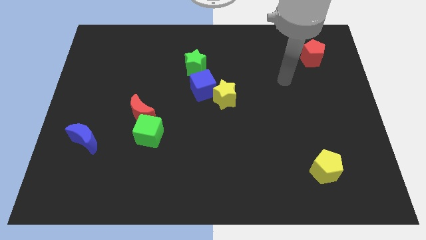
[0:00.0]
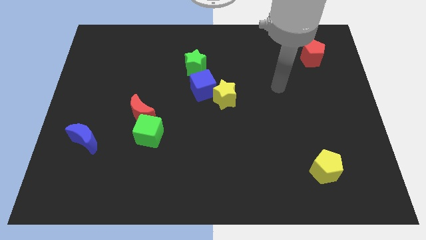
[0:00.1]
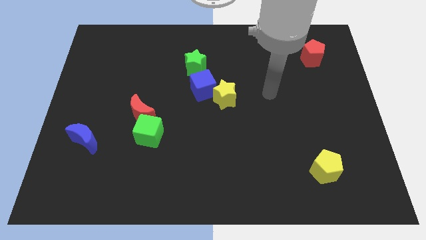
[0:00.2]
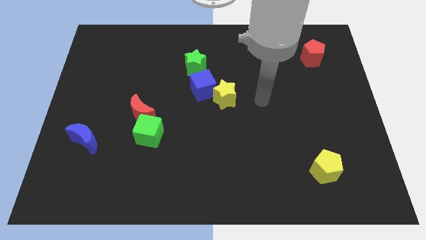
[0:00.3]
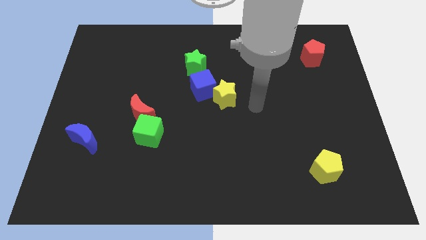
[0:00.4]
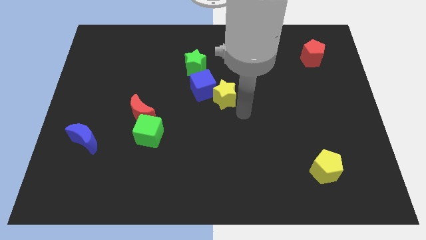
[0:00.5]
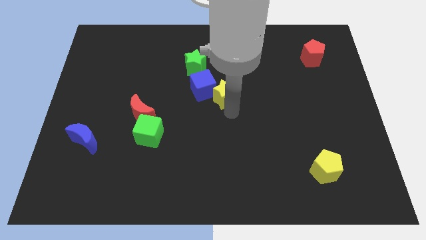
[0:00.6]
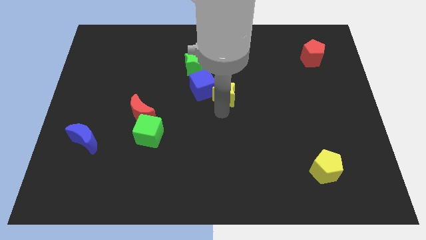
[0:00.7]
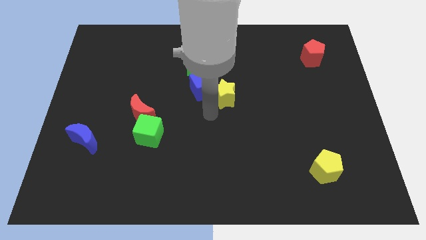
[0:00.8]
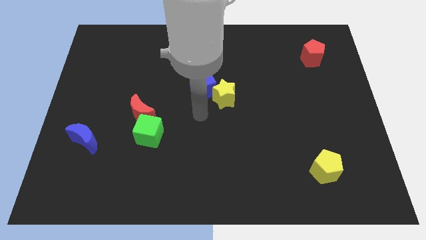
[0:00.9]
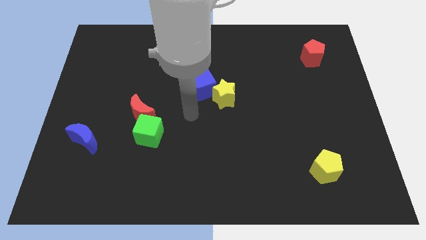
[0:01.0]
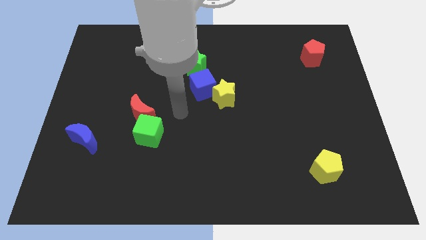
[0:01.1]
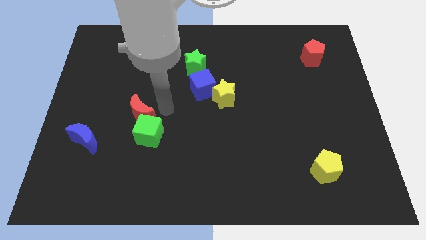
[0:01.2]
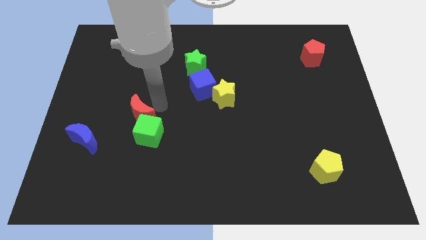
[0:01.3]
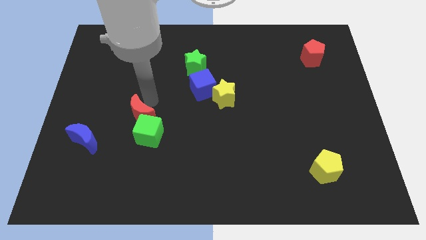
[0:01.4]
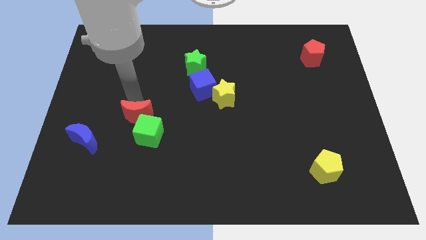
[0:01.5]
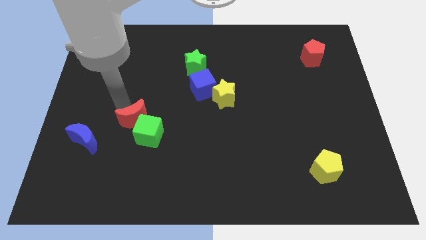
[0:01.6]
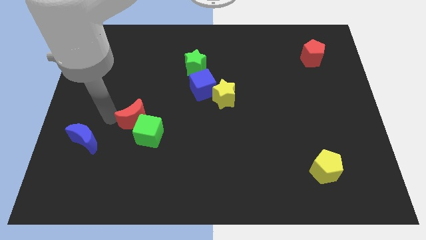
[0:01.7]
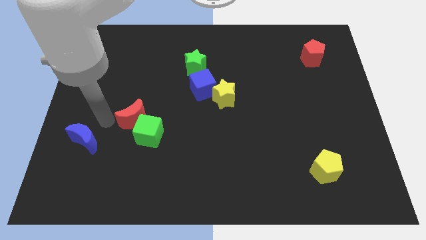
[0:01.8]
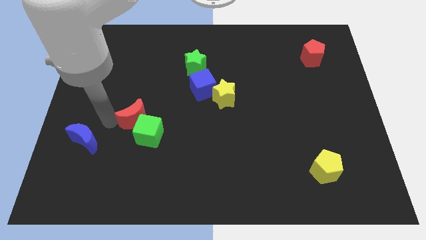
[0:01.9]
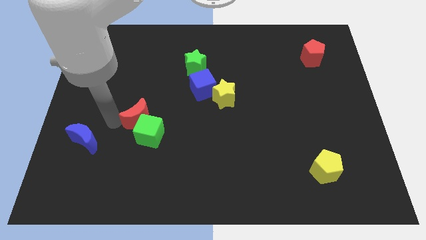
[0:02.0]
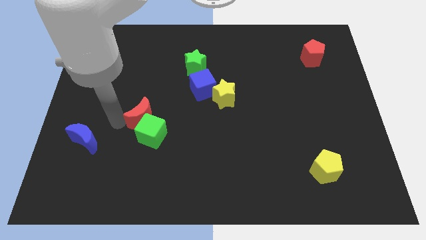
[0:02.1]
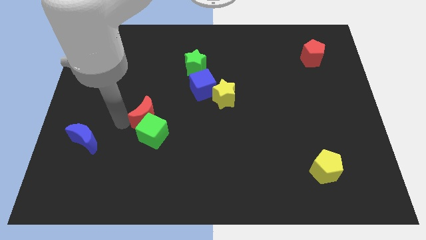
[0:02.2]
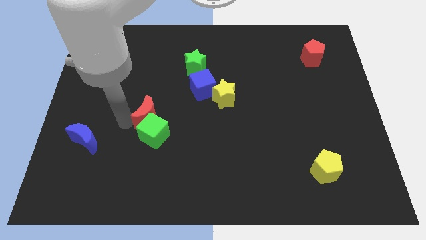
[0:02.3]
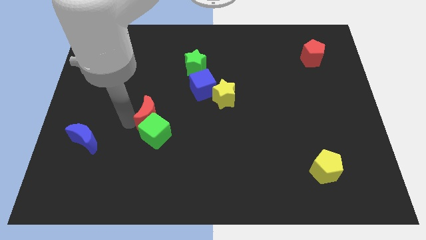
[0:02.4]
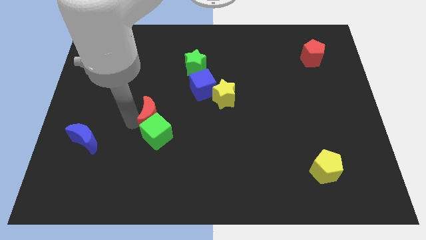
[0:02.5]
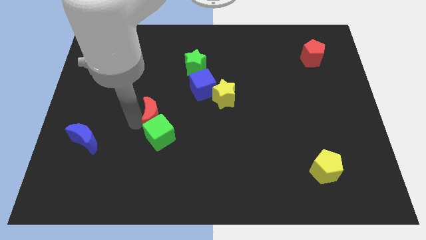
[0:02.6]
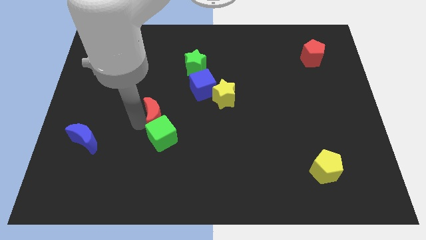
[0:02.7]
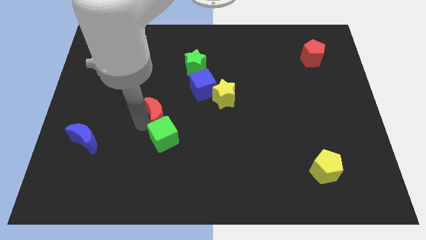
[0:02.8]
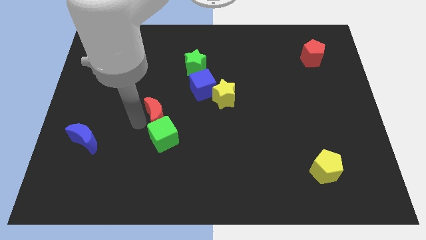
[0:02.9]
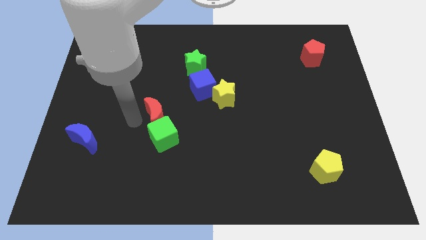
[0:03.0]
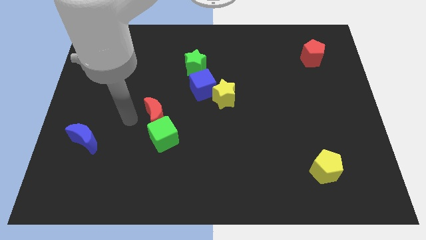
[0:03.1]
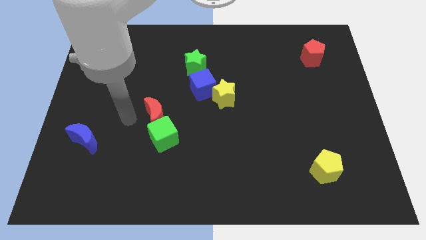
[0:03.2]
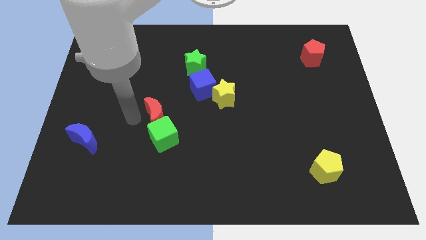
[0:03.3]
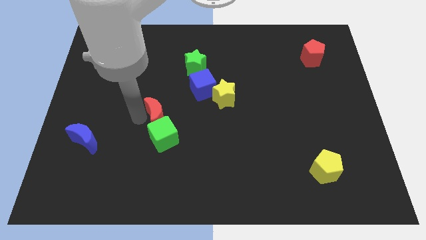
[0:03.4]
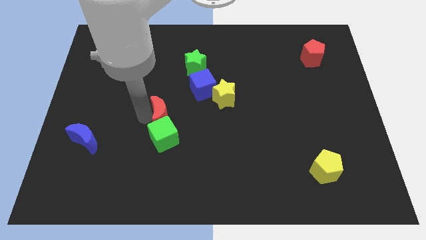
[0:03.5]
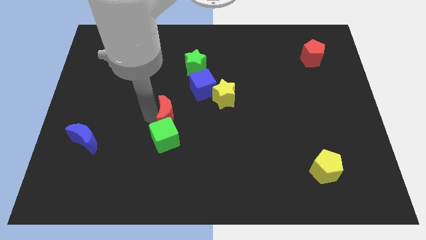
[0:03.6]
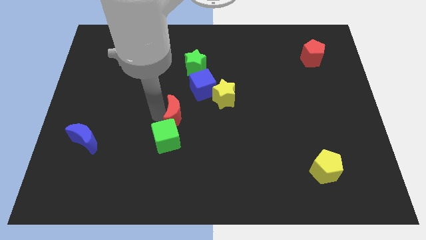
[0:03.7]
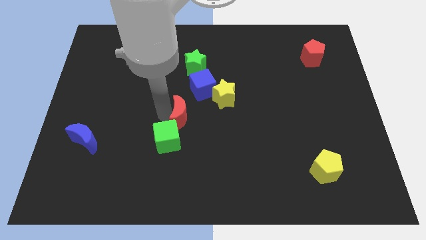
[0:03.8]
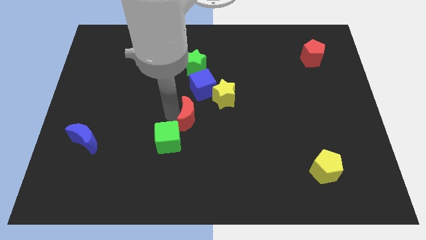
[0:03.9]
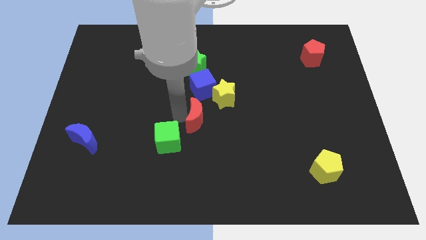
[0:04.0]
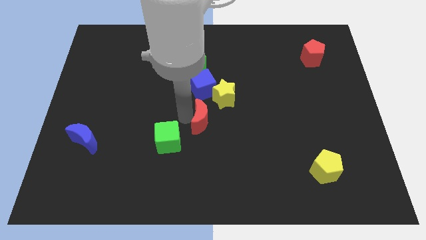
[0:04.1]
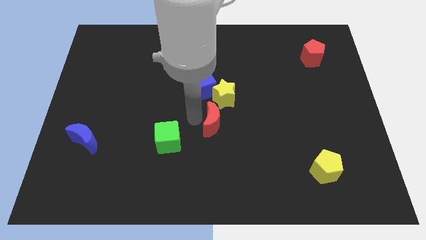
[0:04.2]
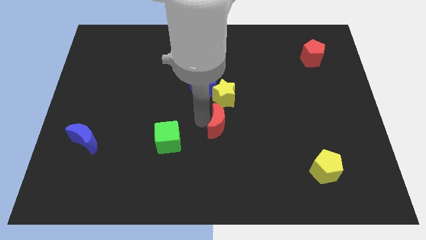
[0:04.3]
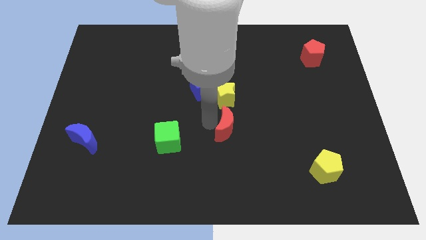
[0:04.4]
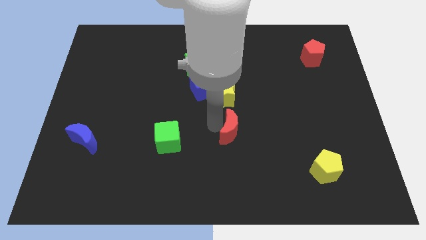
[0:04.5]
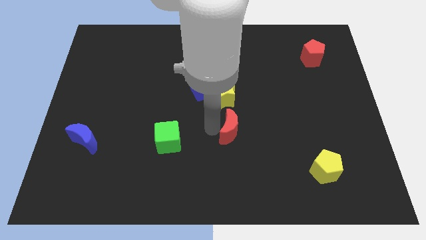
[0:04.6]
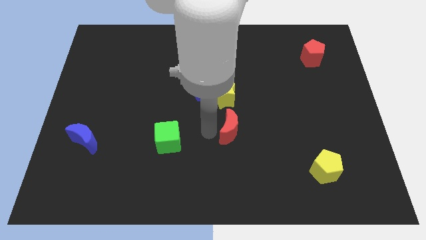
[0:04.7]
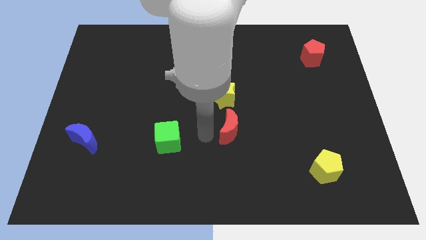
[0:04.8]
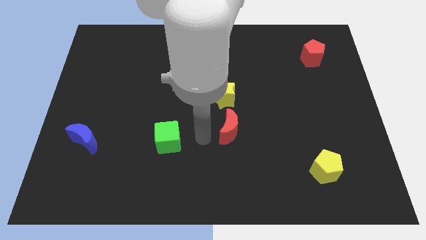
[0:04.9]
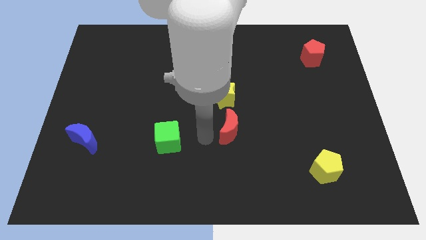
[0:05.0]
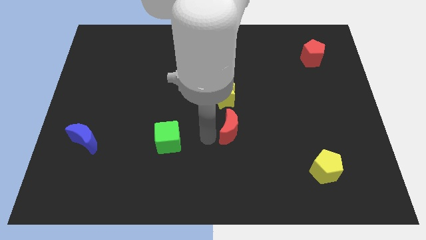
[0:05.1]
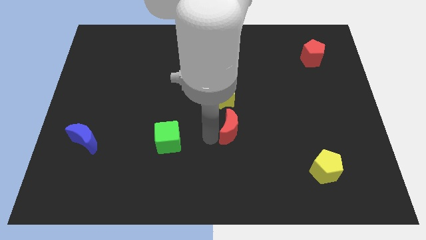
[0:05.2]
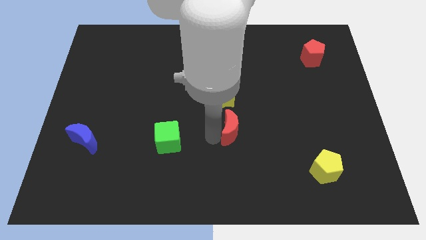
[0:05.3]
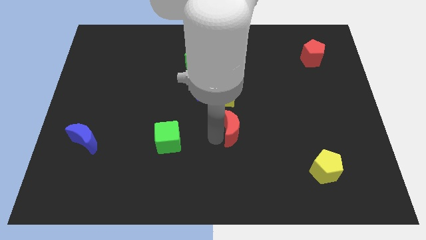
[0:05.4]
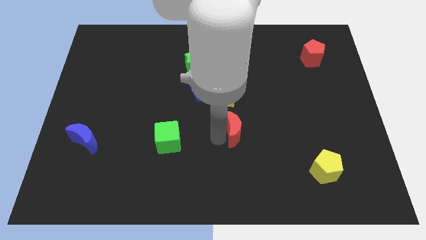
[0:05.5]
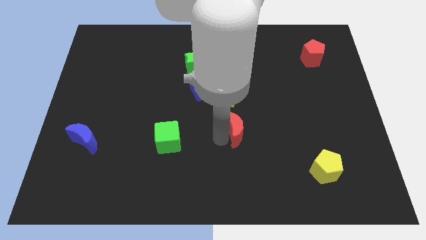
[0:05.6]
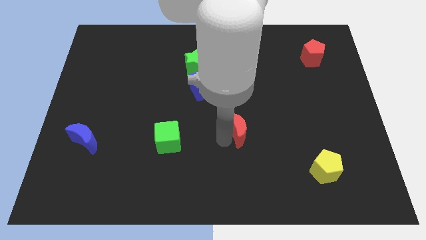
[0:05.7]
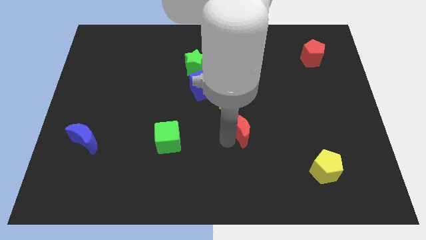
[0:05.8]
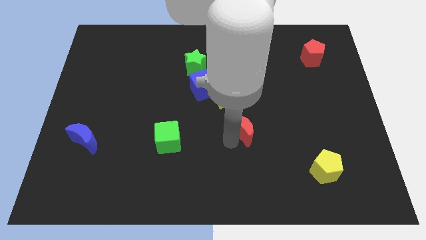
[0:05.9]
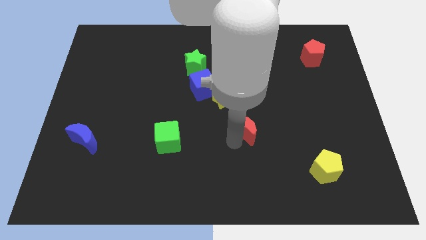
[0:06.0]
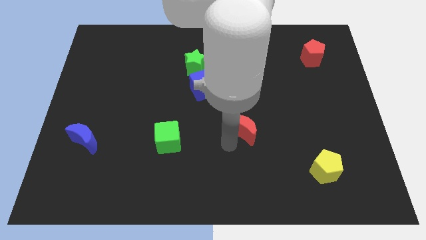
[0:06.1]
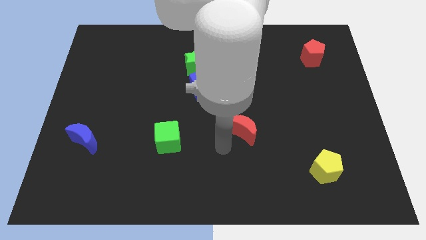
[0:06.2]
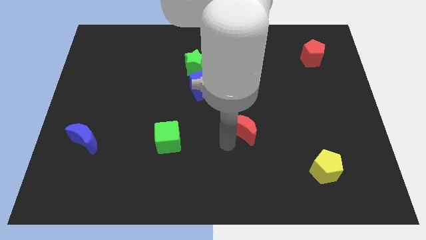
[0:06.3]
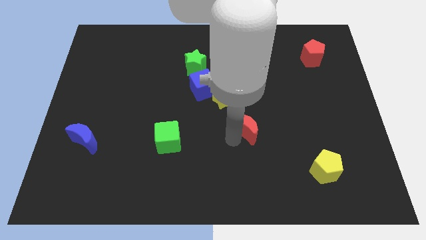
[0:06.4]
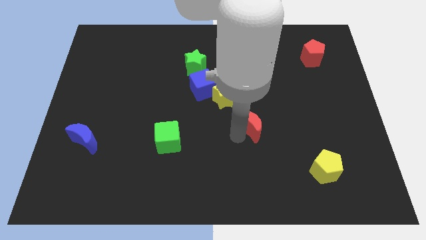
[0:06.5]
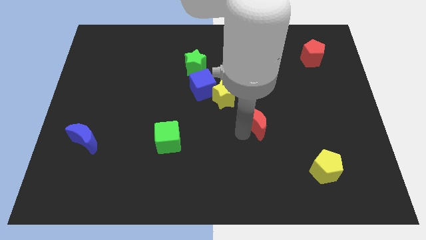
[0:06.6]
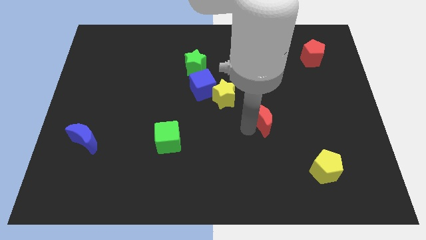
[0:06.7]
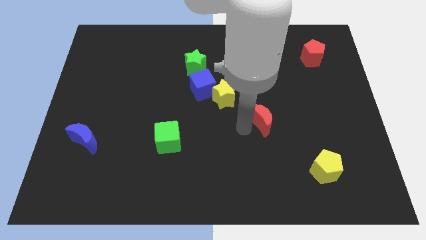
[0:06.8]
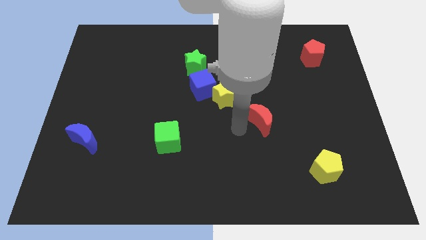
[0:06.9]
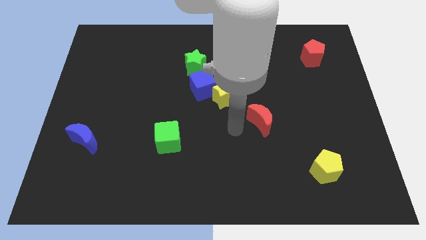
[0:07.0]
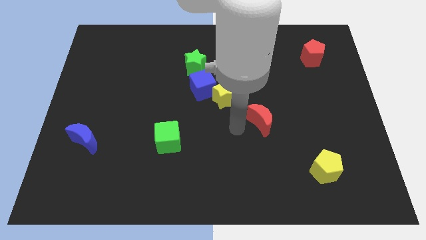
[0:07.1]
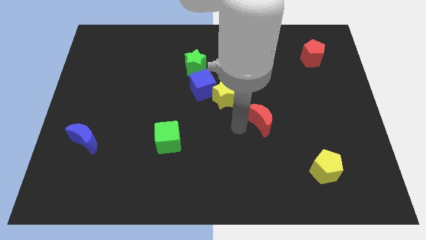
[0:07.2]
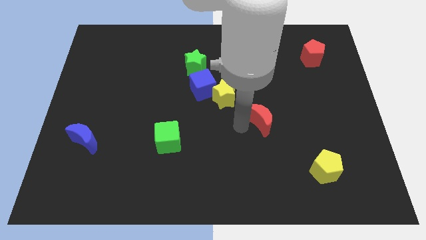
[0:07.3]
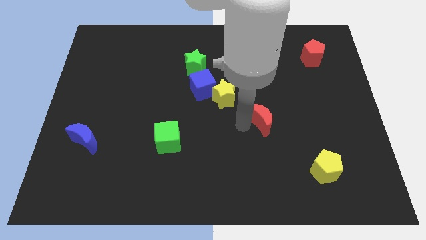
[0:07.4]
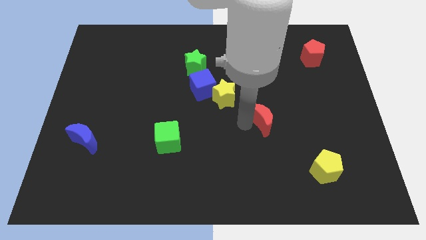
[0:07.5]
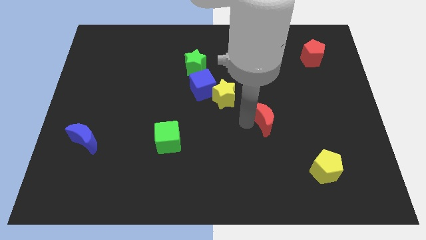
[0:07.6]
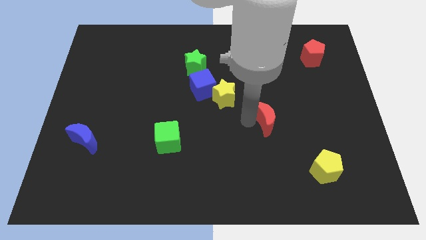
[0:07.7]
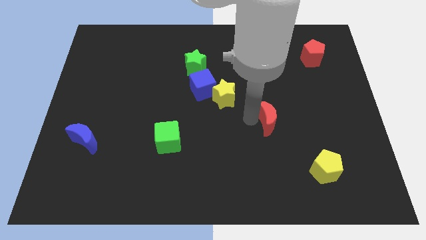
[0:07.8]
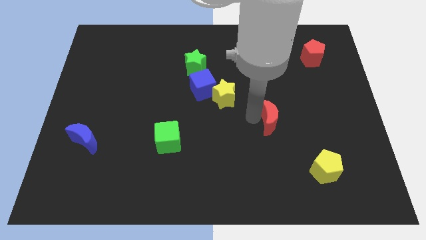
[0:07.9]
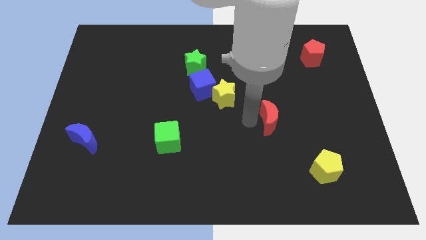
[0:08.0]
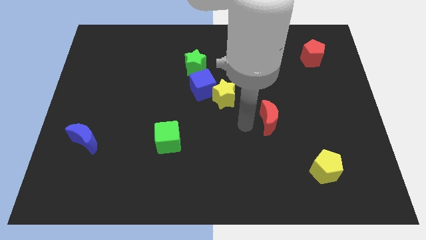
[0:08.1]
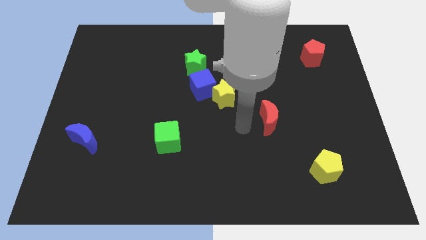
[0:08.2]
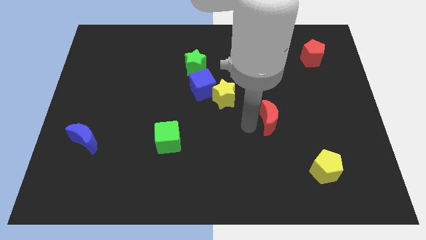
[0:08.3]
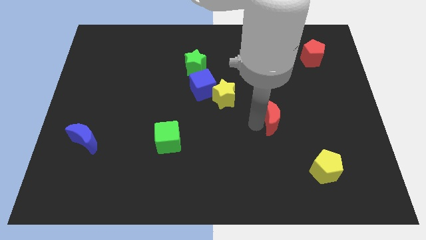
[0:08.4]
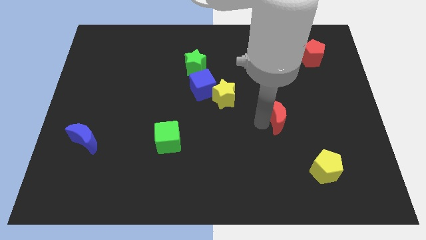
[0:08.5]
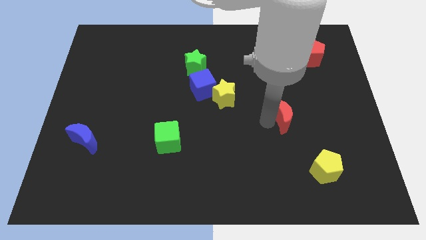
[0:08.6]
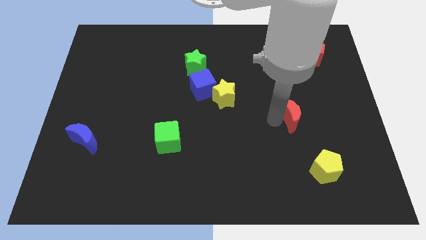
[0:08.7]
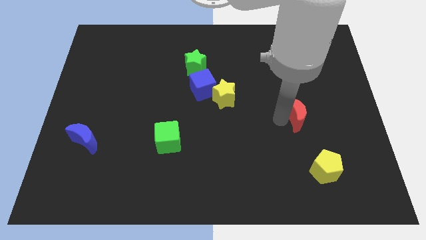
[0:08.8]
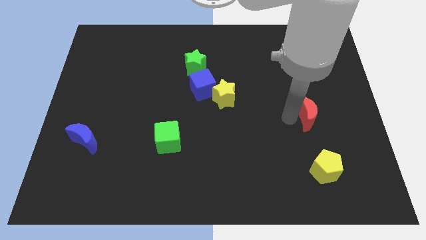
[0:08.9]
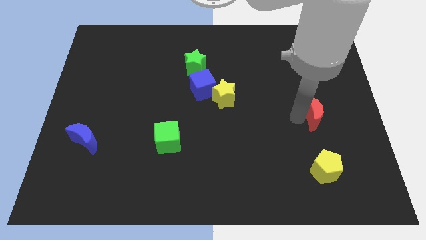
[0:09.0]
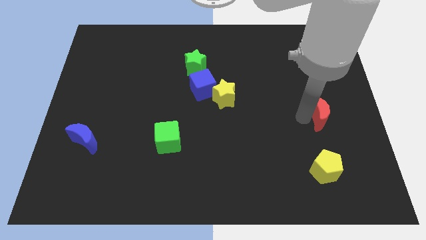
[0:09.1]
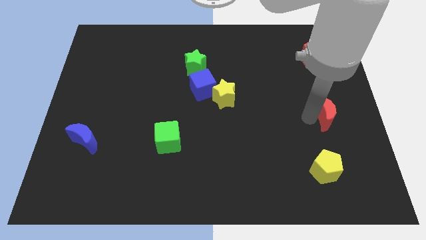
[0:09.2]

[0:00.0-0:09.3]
slide the red moon to the center right
